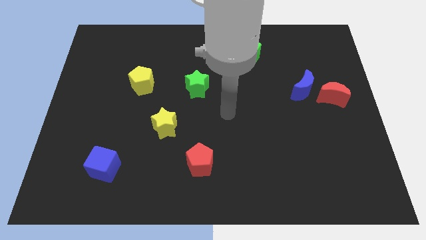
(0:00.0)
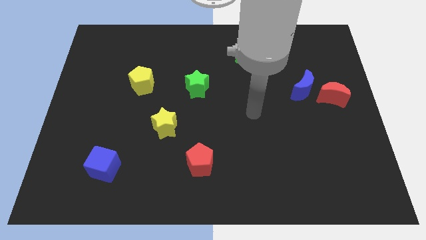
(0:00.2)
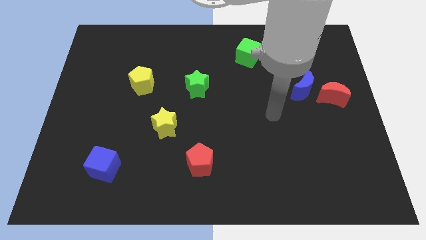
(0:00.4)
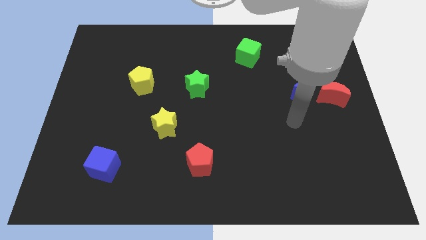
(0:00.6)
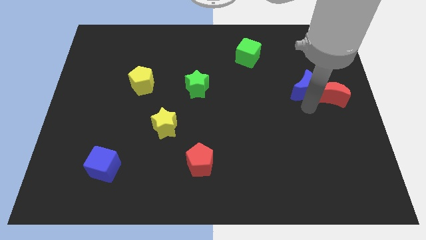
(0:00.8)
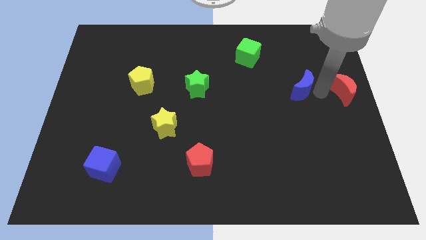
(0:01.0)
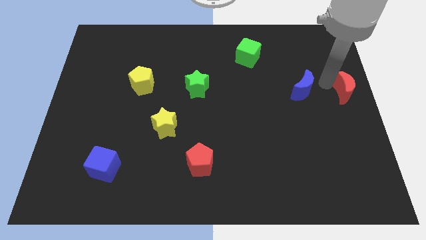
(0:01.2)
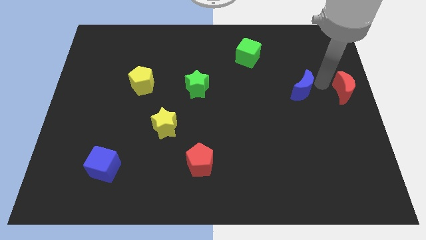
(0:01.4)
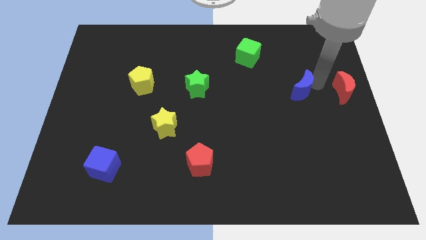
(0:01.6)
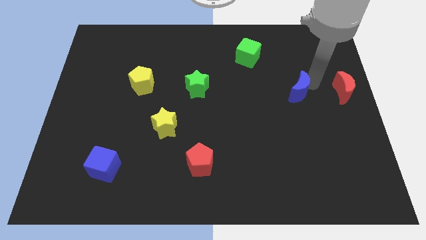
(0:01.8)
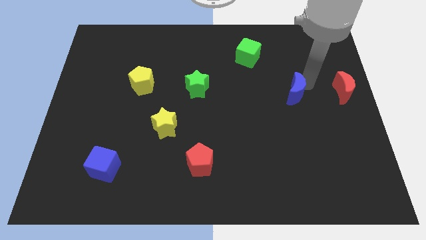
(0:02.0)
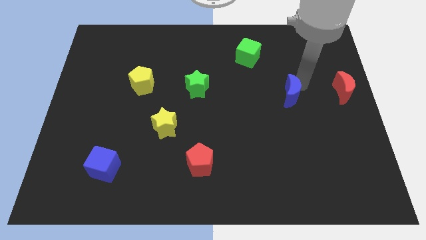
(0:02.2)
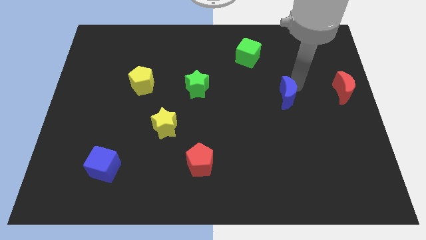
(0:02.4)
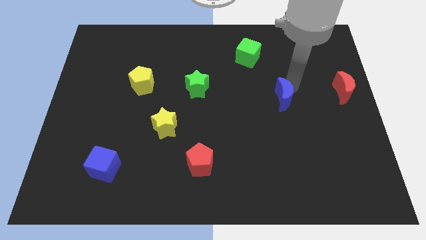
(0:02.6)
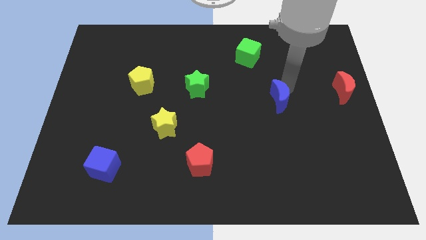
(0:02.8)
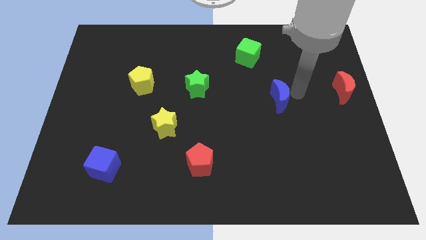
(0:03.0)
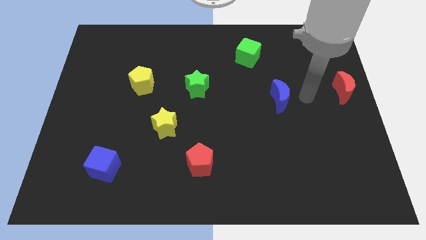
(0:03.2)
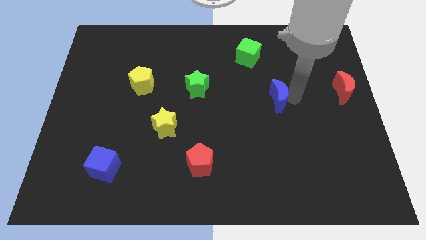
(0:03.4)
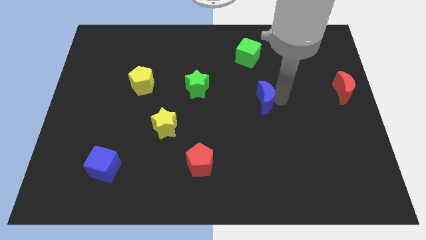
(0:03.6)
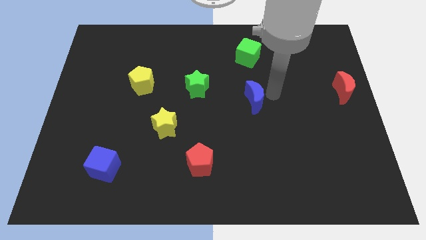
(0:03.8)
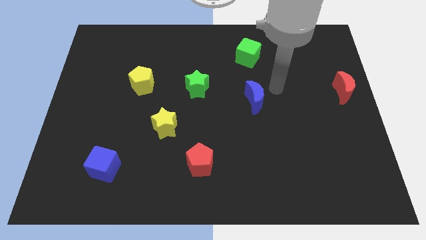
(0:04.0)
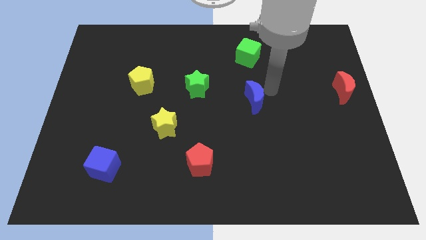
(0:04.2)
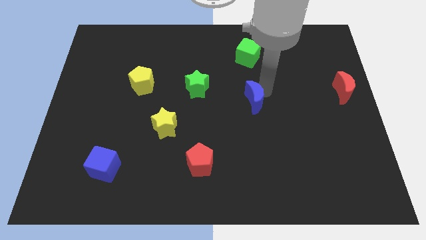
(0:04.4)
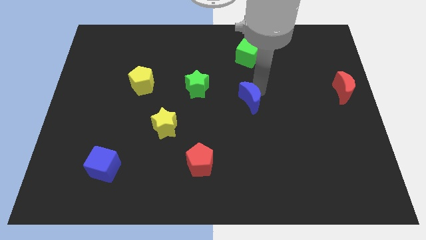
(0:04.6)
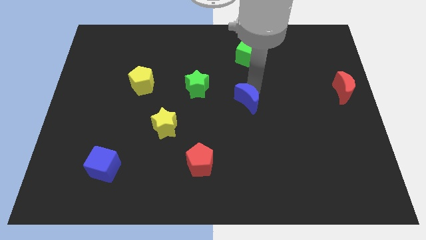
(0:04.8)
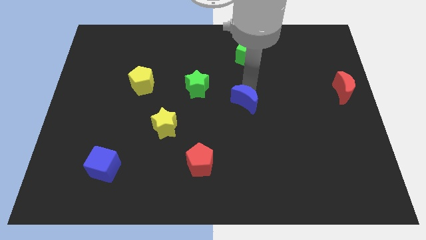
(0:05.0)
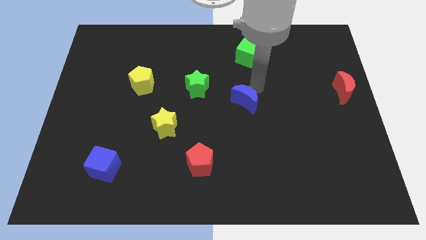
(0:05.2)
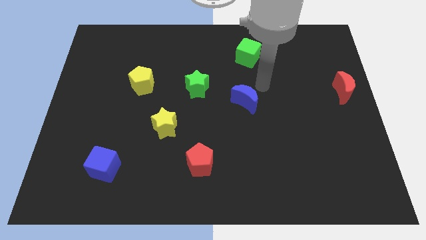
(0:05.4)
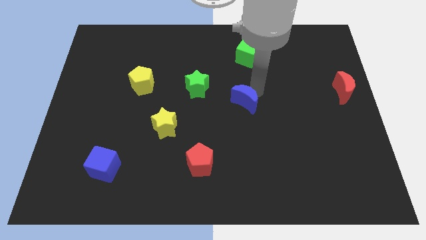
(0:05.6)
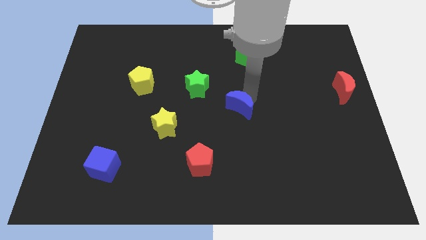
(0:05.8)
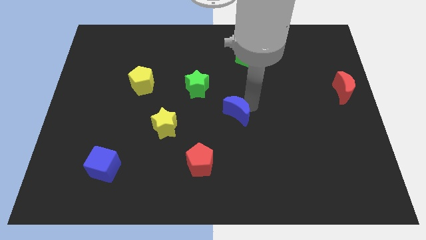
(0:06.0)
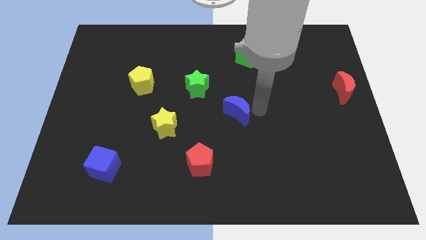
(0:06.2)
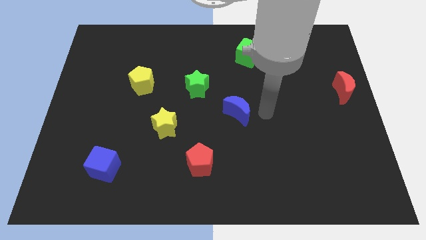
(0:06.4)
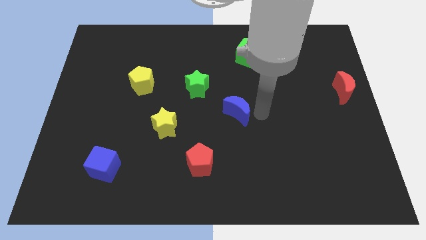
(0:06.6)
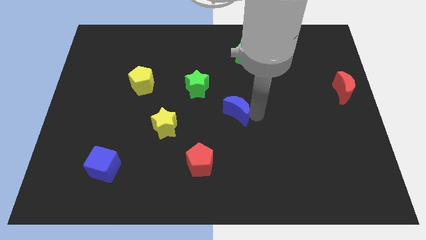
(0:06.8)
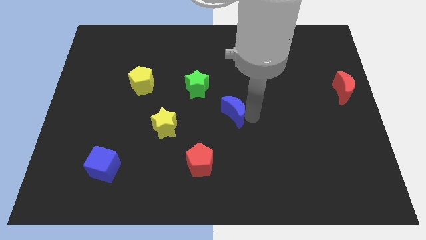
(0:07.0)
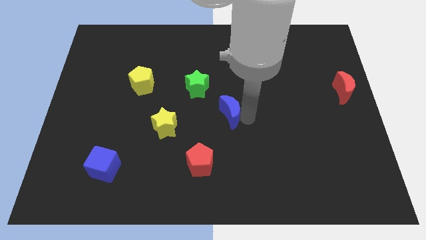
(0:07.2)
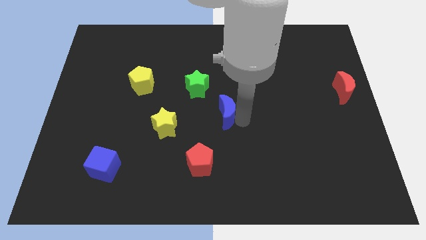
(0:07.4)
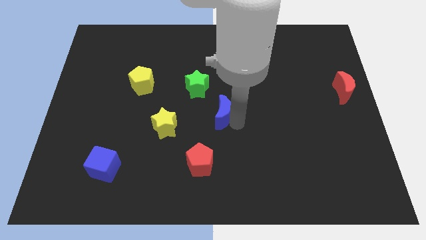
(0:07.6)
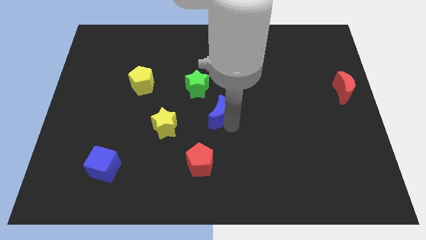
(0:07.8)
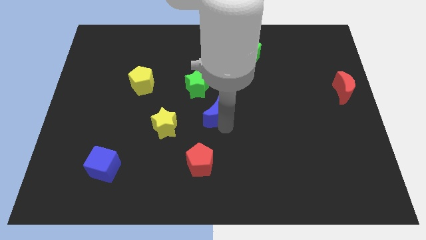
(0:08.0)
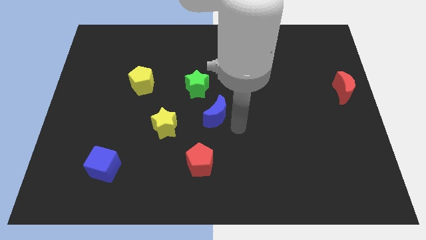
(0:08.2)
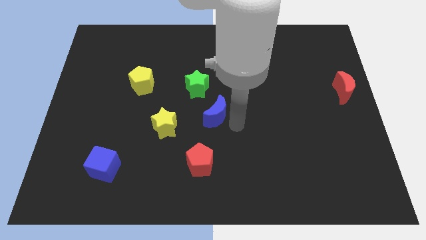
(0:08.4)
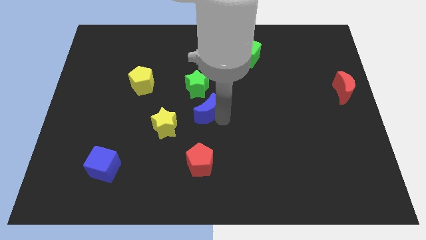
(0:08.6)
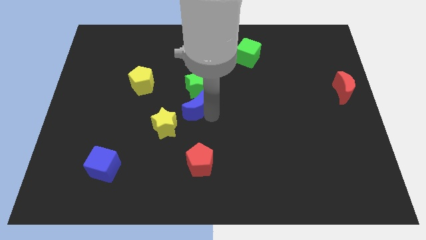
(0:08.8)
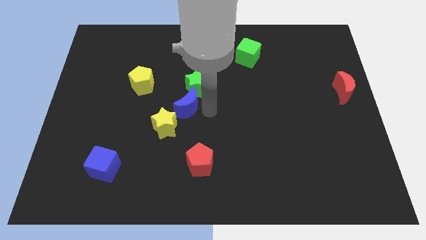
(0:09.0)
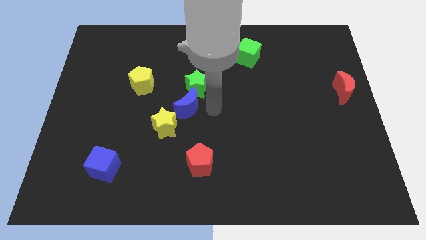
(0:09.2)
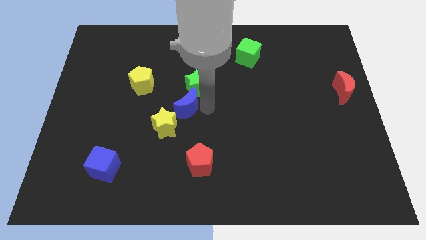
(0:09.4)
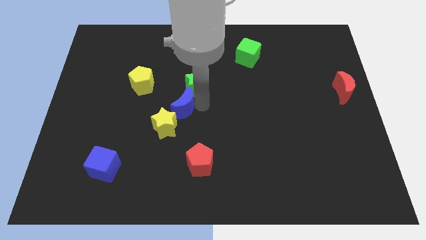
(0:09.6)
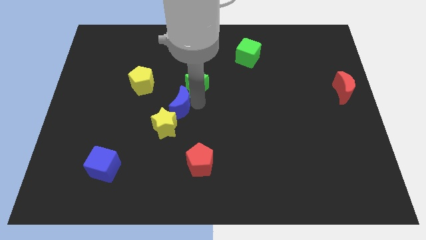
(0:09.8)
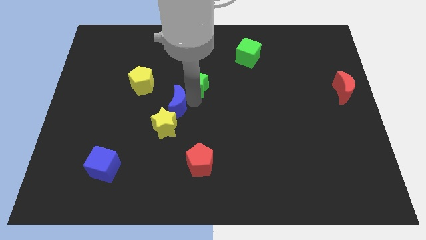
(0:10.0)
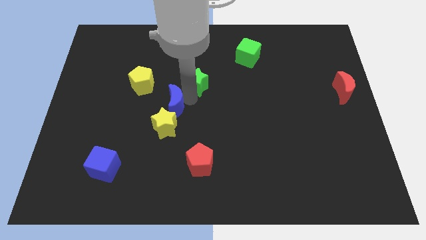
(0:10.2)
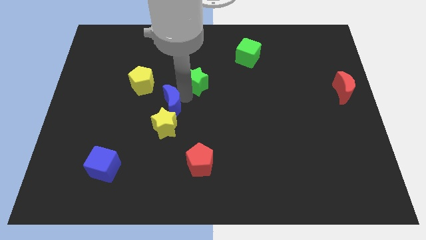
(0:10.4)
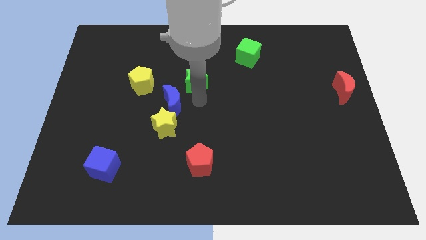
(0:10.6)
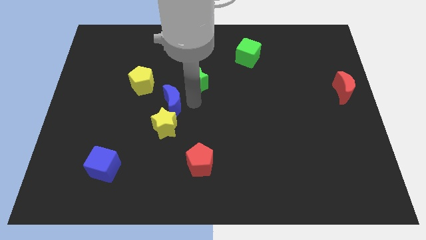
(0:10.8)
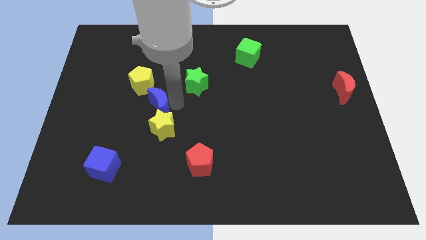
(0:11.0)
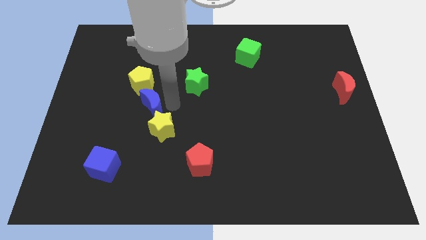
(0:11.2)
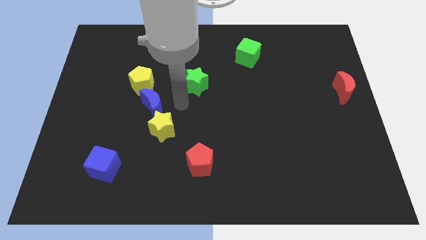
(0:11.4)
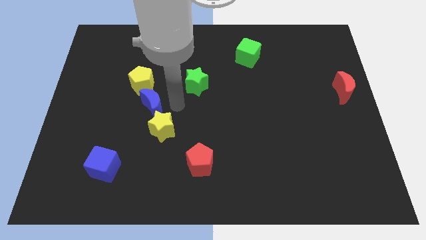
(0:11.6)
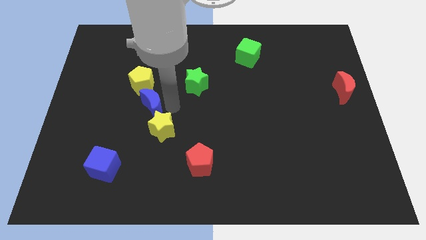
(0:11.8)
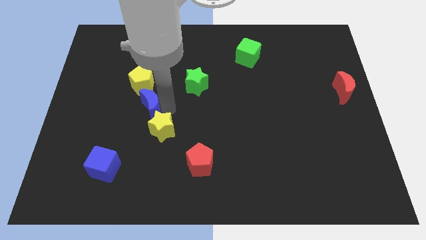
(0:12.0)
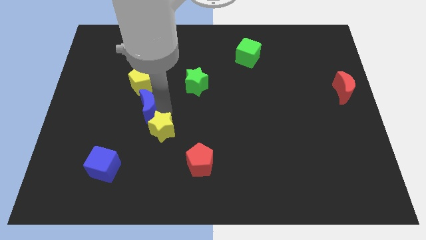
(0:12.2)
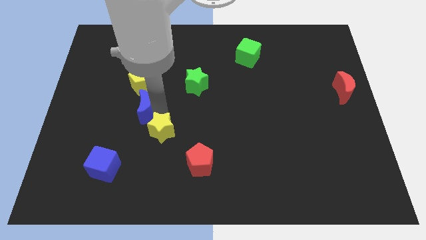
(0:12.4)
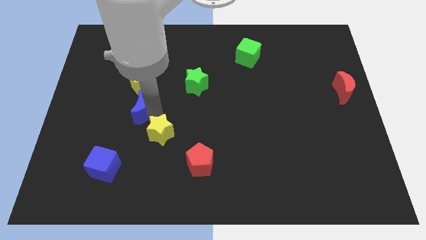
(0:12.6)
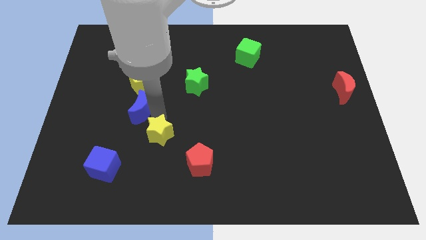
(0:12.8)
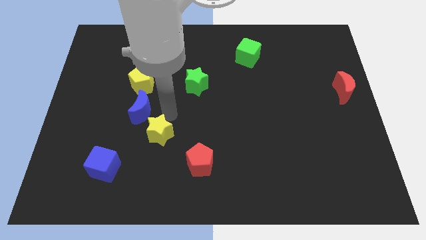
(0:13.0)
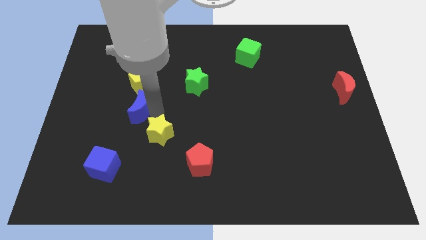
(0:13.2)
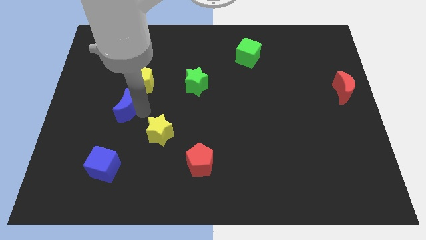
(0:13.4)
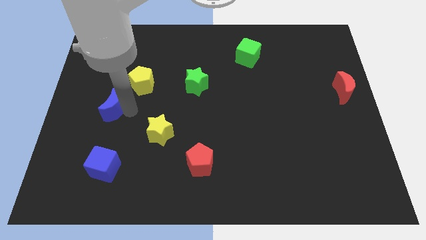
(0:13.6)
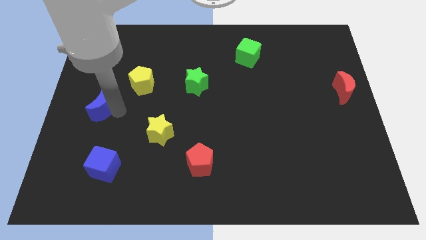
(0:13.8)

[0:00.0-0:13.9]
slide the blue moon to the center left

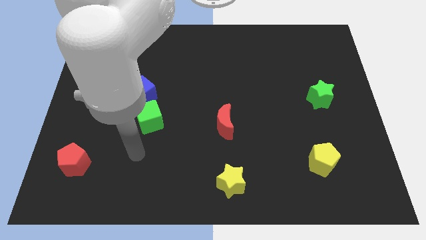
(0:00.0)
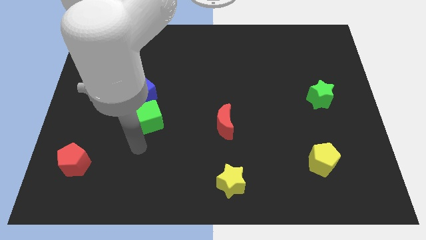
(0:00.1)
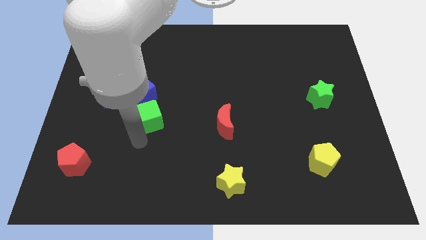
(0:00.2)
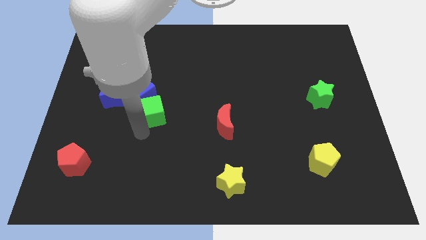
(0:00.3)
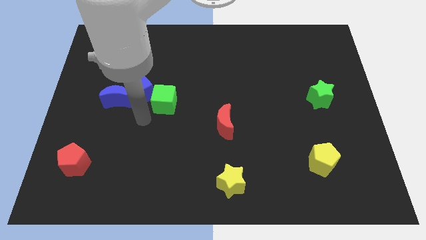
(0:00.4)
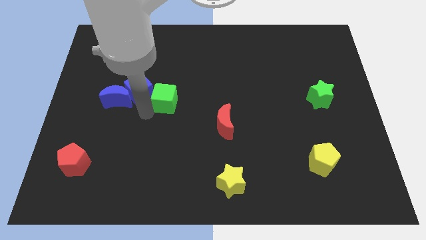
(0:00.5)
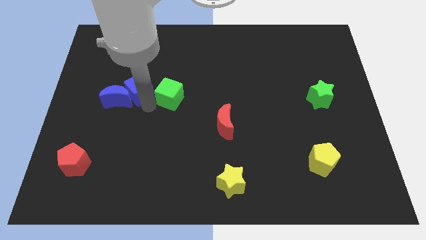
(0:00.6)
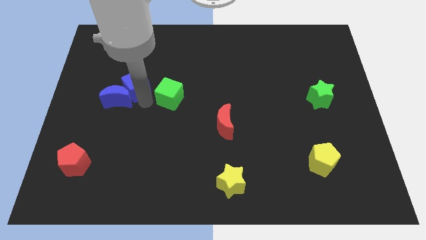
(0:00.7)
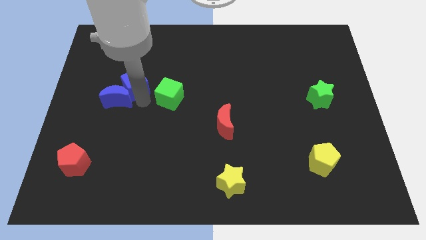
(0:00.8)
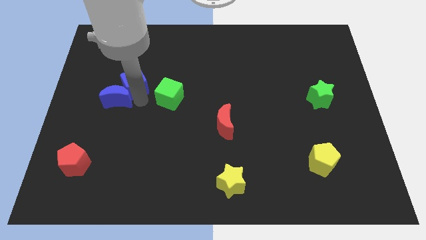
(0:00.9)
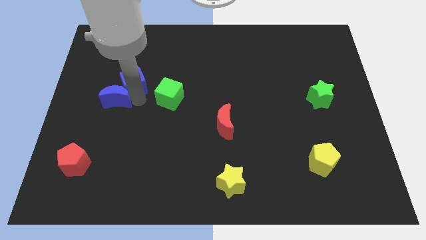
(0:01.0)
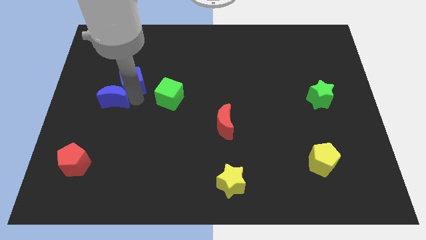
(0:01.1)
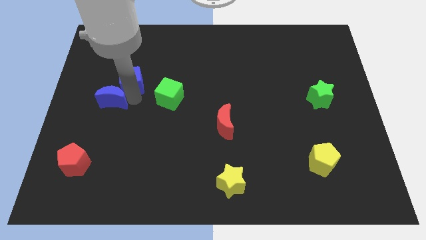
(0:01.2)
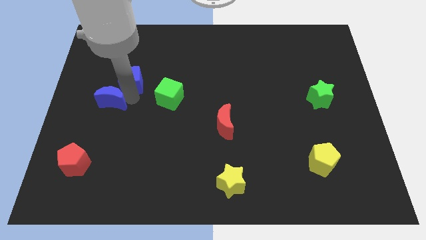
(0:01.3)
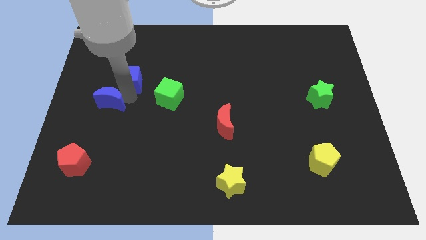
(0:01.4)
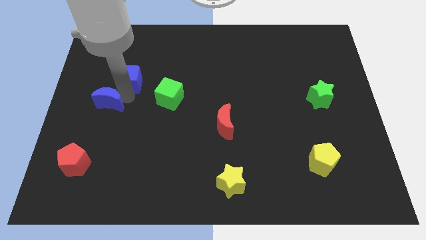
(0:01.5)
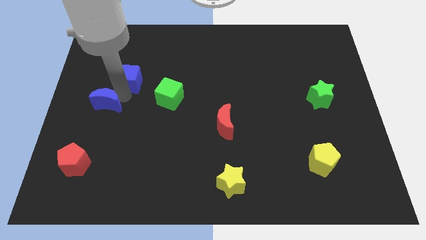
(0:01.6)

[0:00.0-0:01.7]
slide the blue moon to the left side of the board
